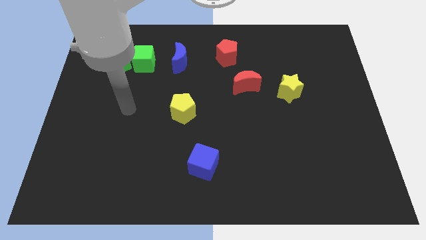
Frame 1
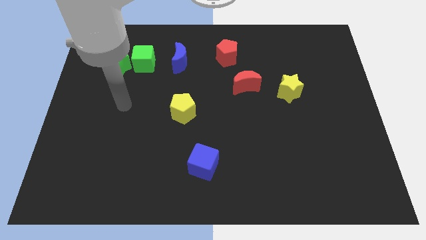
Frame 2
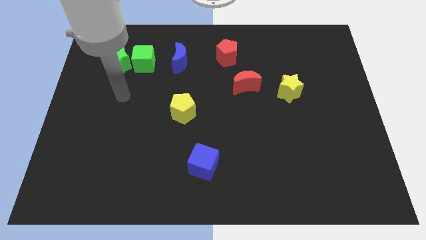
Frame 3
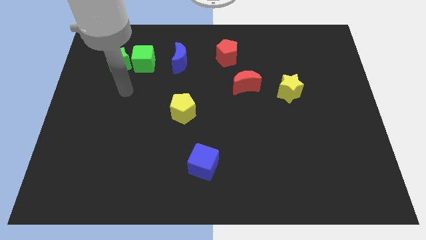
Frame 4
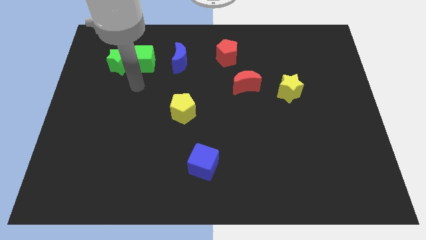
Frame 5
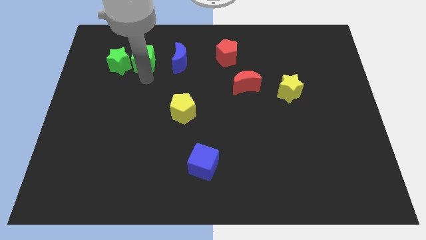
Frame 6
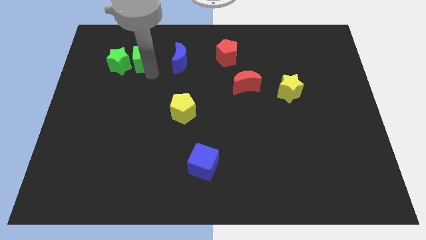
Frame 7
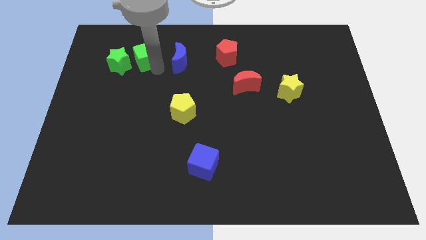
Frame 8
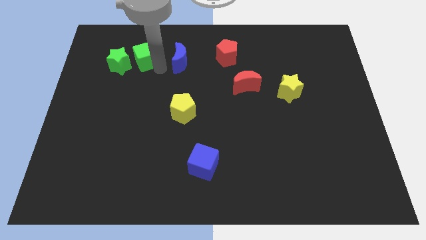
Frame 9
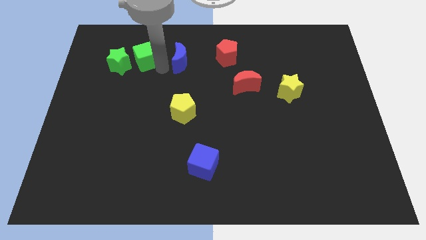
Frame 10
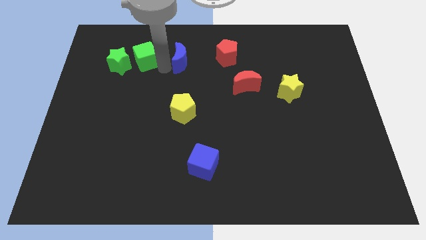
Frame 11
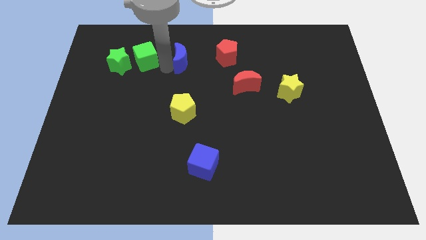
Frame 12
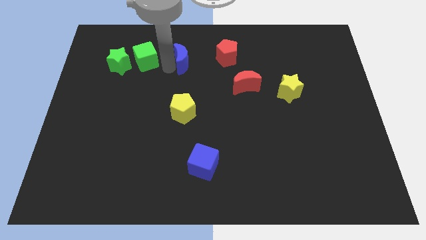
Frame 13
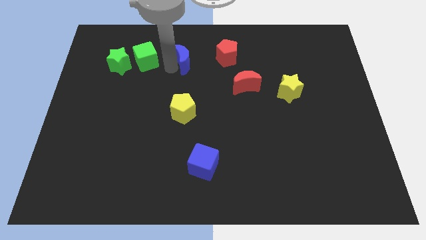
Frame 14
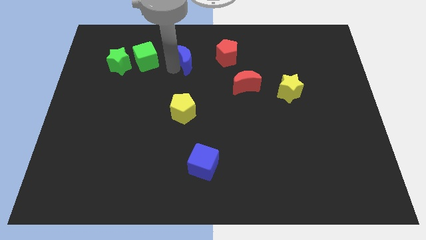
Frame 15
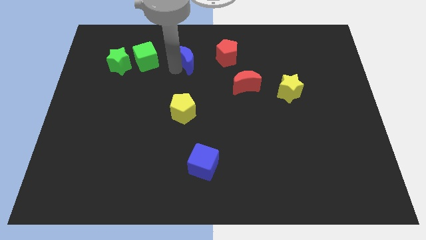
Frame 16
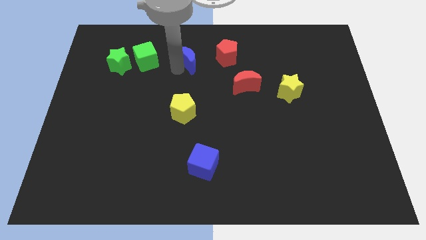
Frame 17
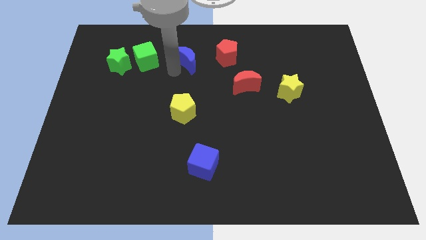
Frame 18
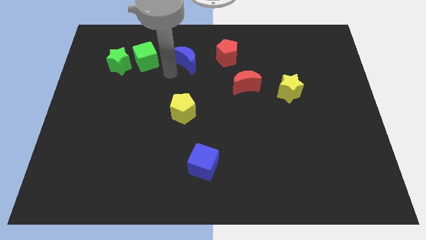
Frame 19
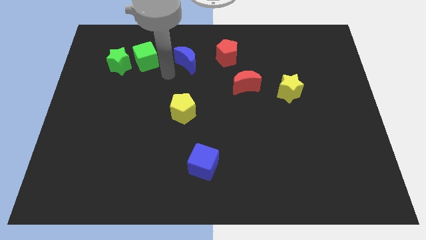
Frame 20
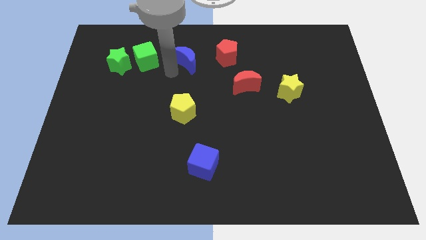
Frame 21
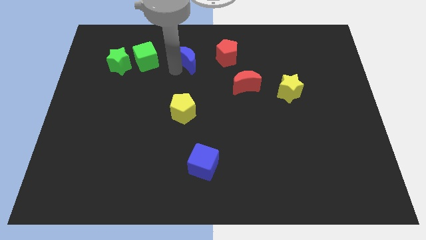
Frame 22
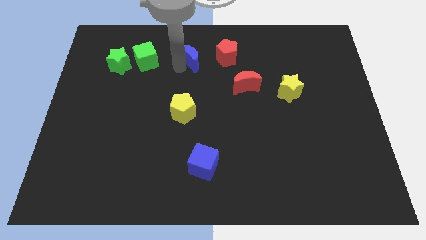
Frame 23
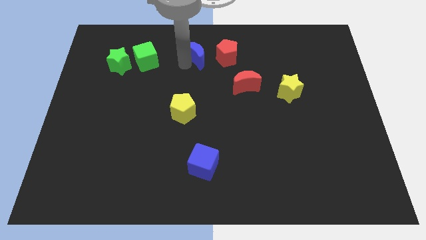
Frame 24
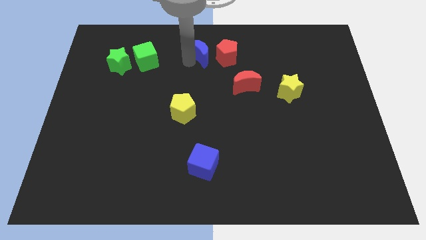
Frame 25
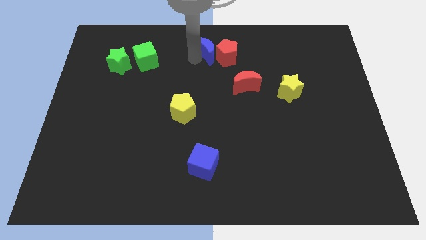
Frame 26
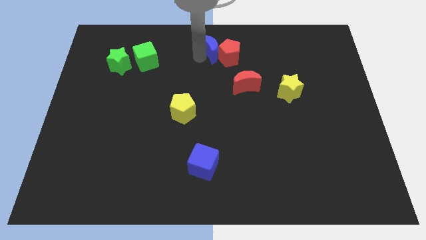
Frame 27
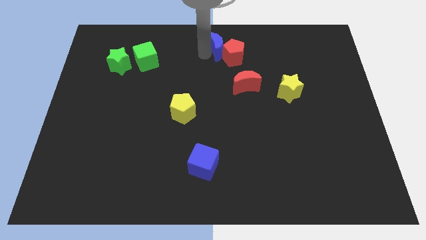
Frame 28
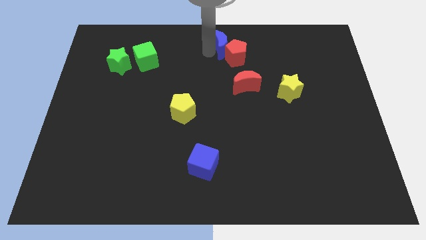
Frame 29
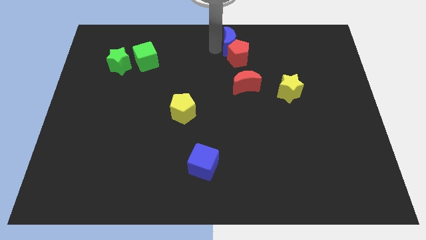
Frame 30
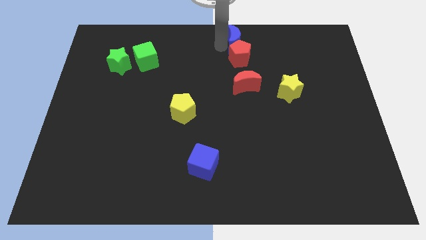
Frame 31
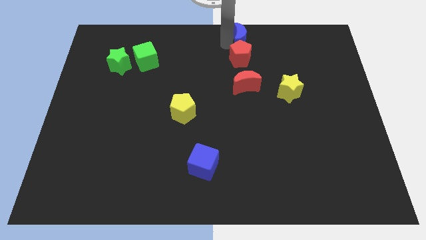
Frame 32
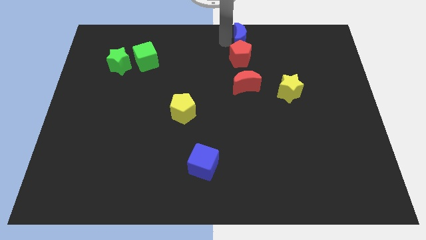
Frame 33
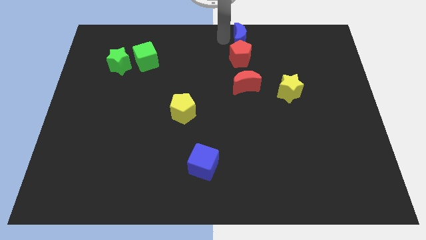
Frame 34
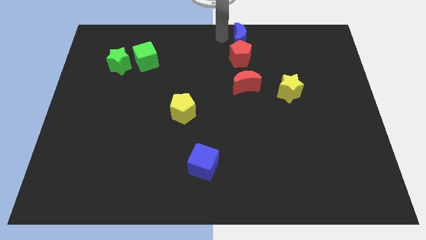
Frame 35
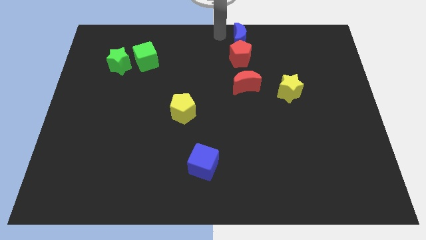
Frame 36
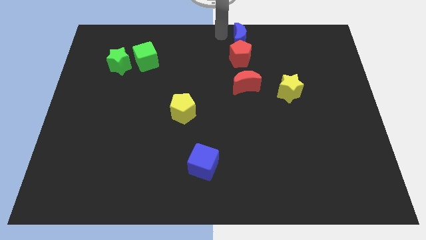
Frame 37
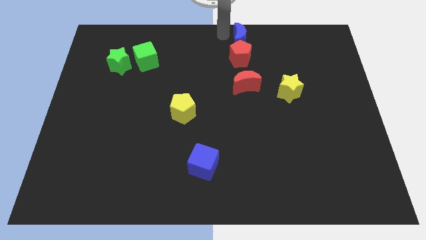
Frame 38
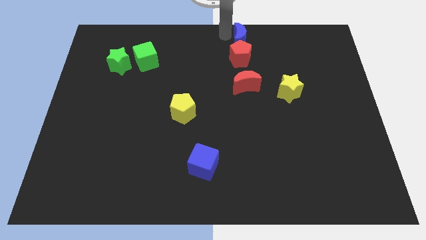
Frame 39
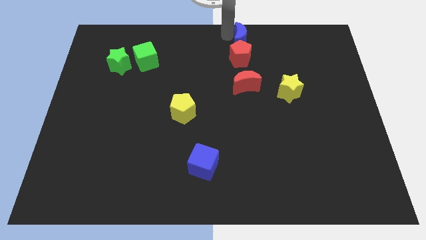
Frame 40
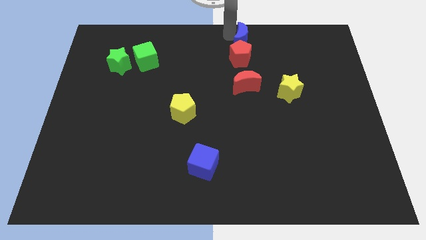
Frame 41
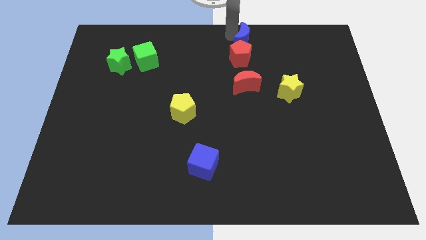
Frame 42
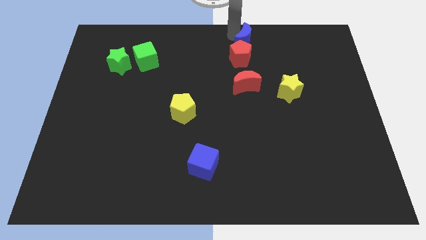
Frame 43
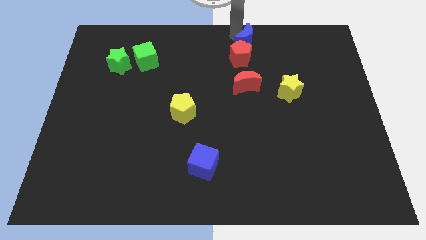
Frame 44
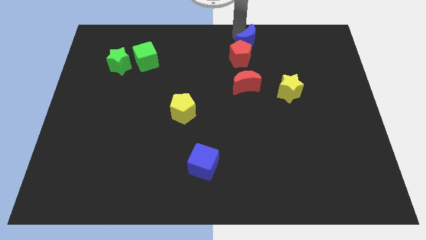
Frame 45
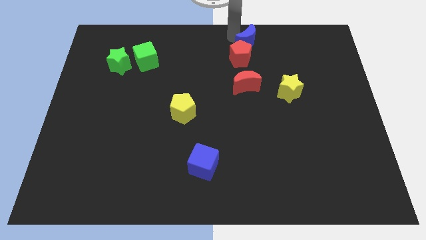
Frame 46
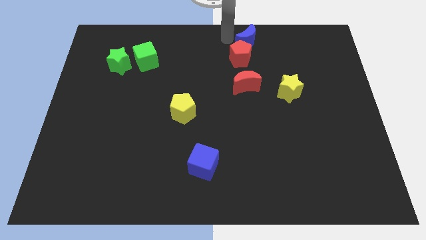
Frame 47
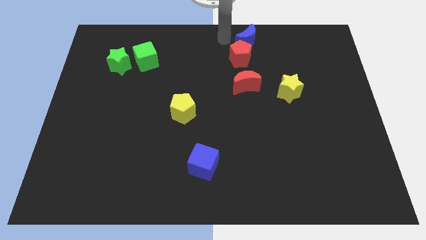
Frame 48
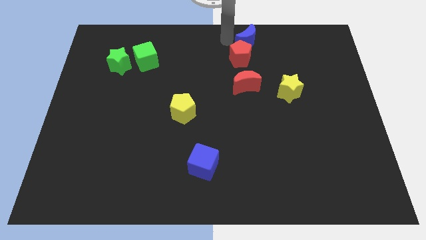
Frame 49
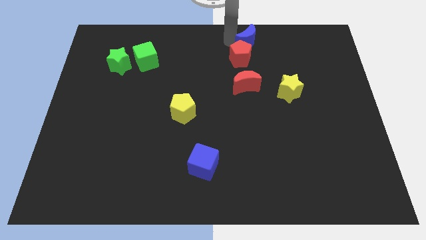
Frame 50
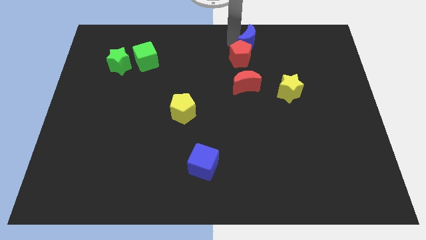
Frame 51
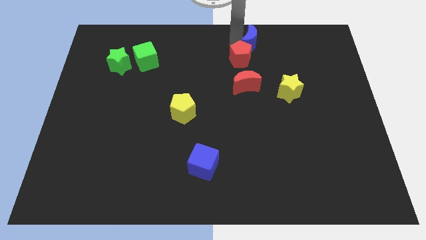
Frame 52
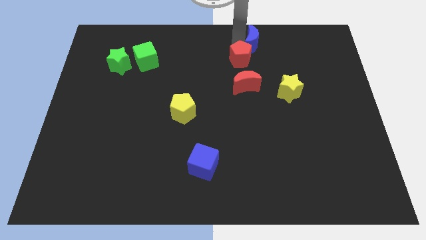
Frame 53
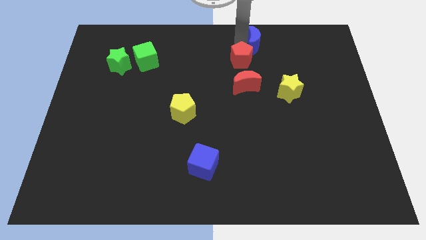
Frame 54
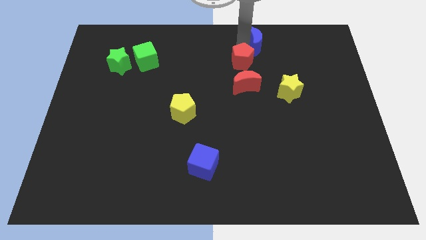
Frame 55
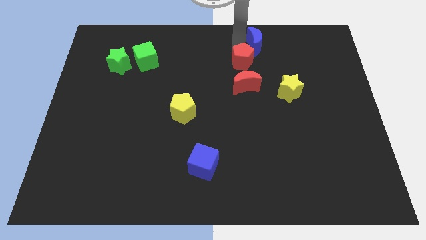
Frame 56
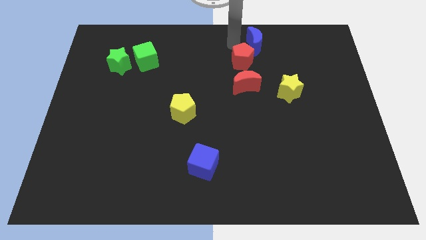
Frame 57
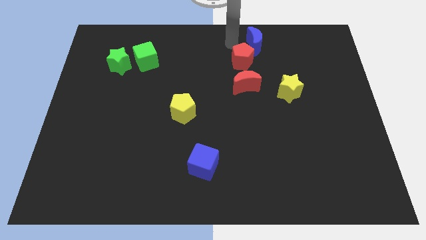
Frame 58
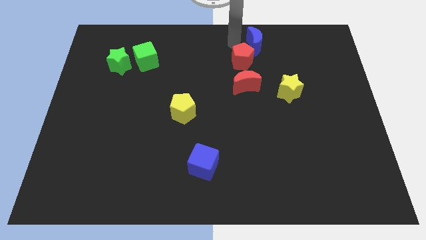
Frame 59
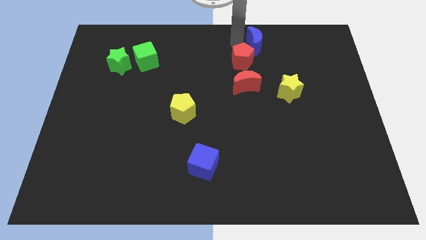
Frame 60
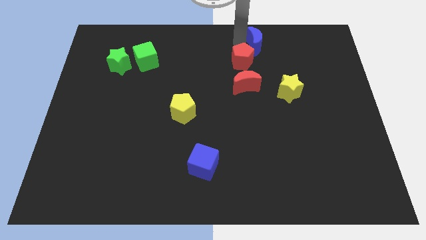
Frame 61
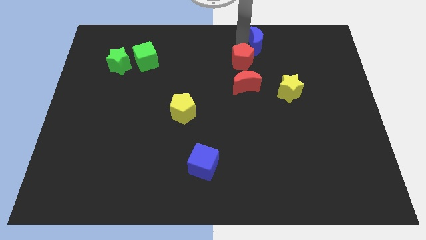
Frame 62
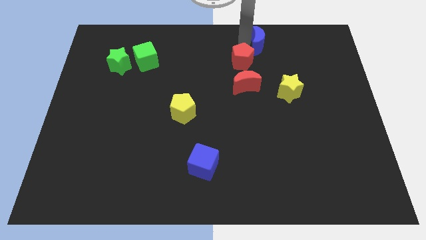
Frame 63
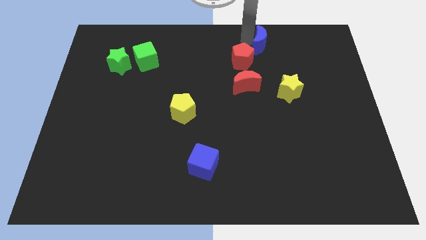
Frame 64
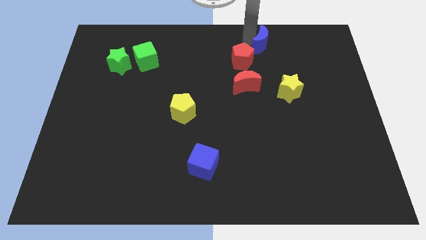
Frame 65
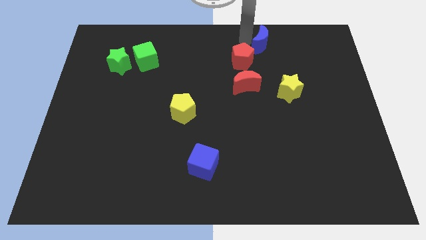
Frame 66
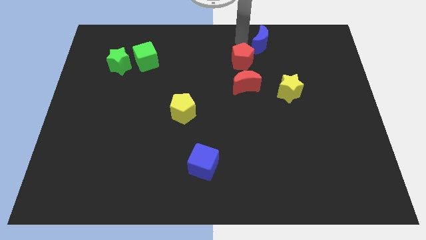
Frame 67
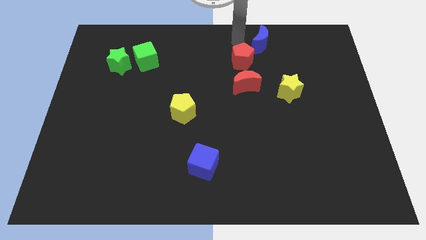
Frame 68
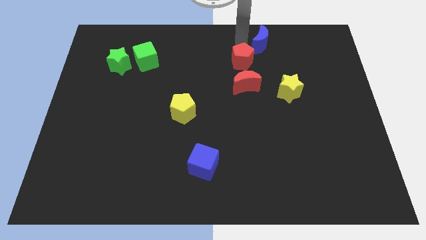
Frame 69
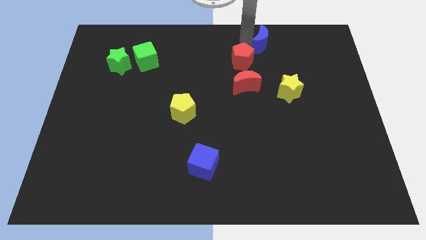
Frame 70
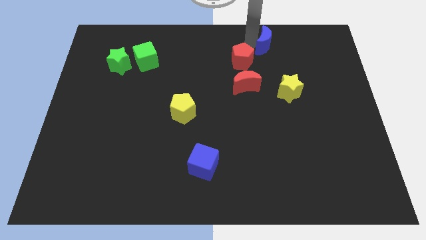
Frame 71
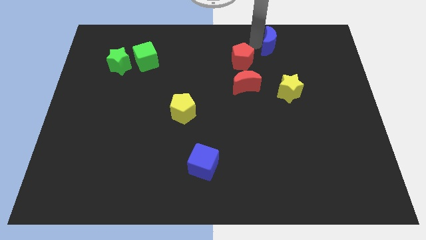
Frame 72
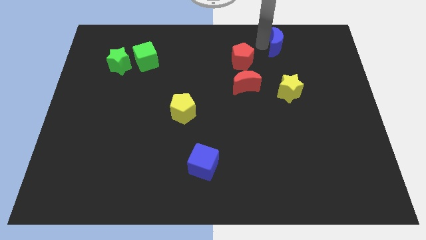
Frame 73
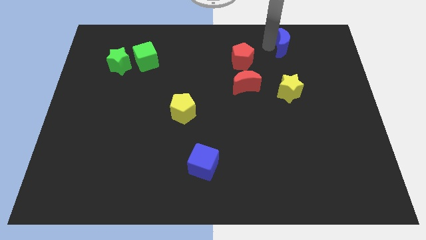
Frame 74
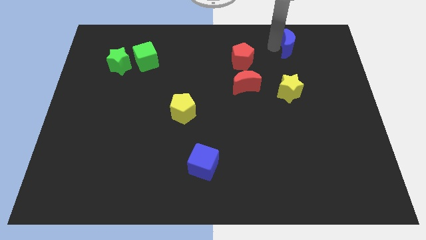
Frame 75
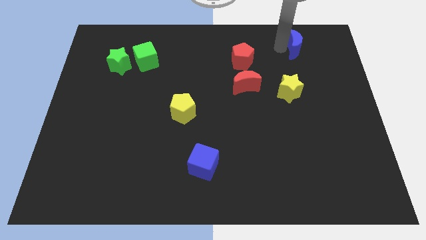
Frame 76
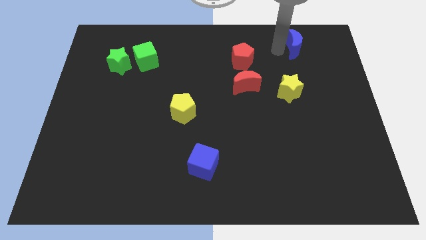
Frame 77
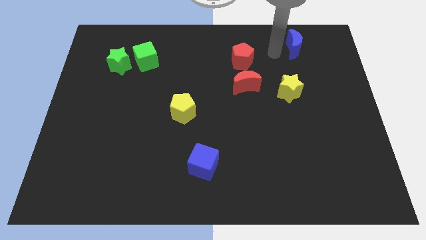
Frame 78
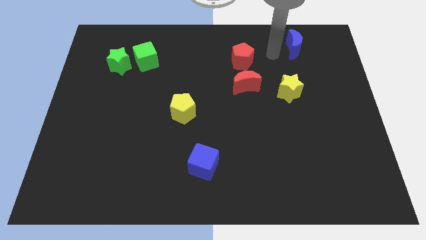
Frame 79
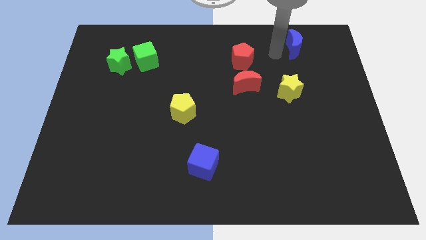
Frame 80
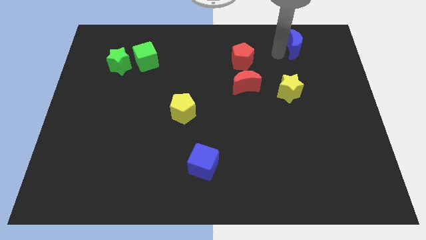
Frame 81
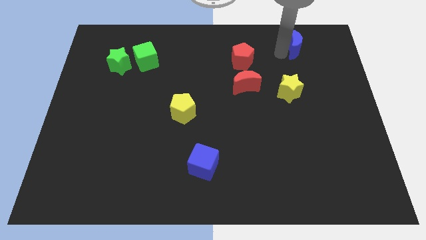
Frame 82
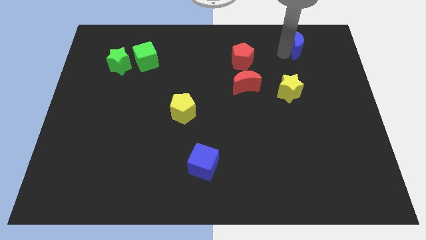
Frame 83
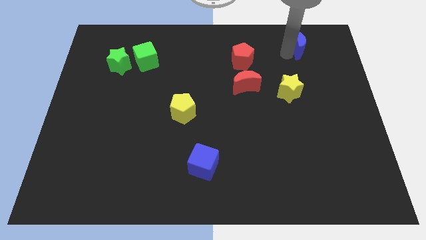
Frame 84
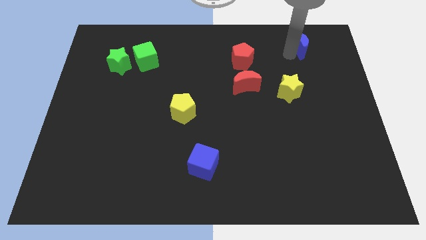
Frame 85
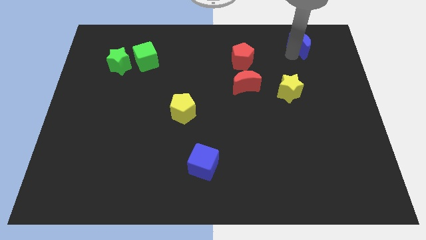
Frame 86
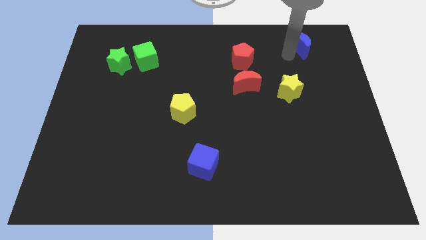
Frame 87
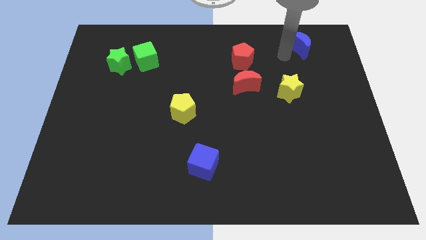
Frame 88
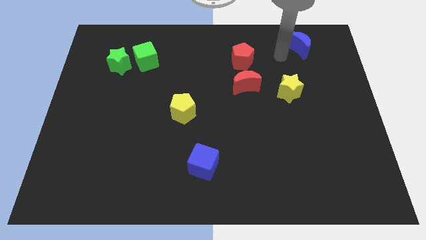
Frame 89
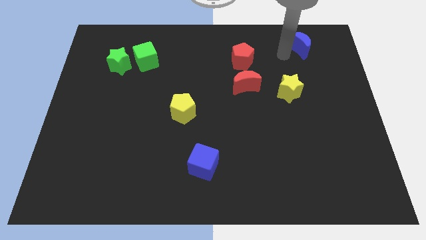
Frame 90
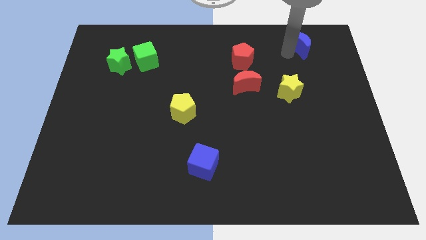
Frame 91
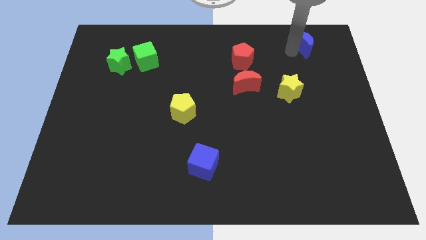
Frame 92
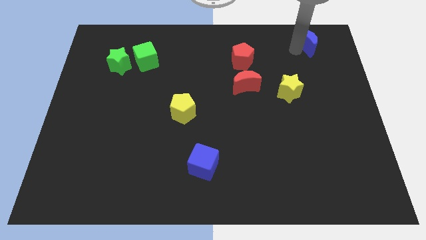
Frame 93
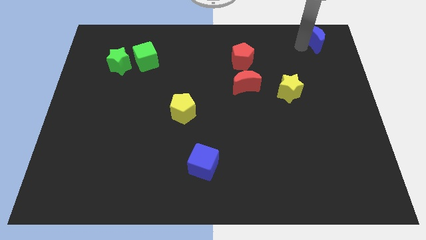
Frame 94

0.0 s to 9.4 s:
push the blue moon to the top right of the board
